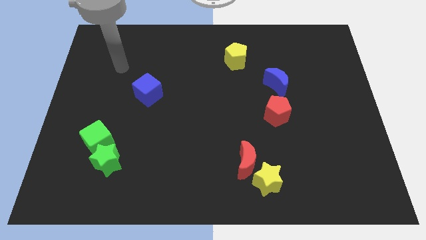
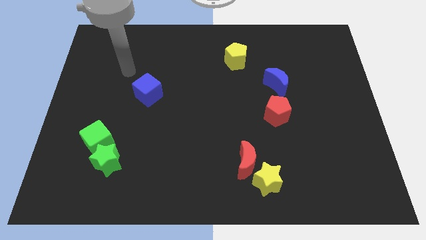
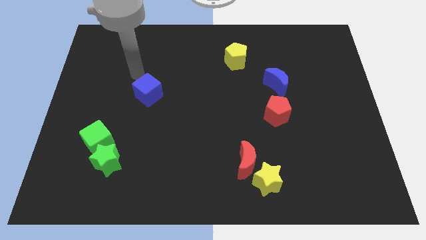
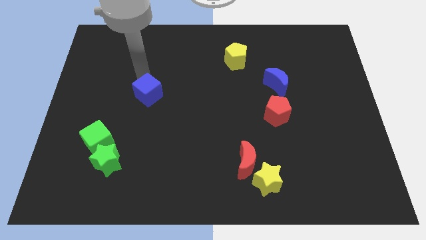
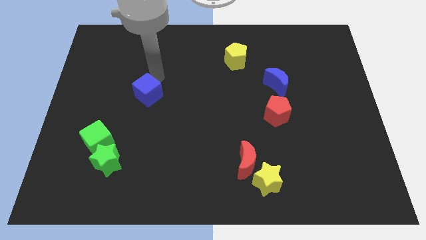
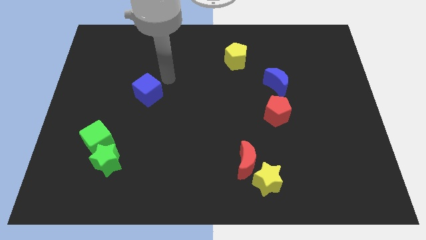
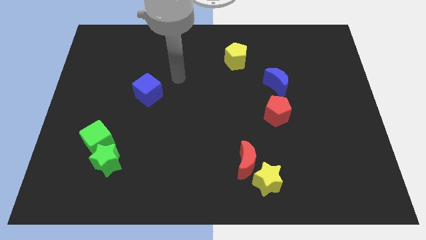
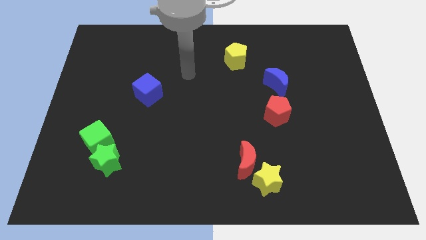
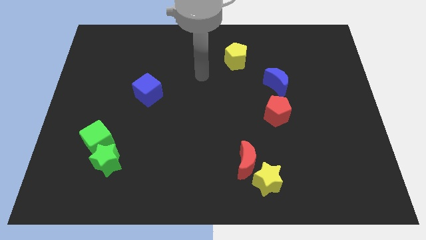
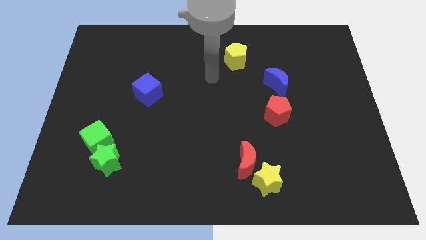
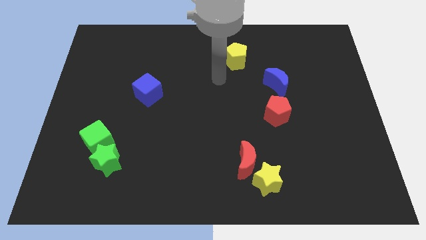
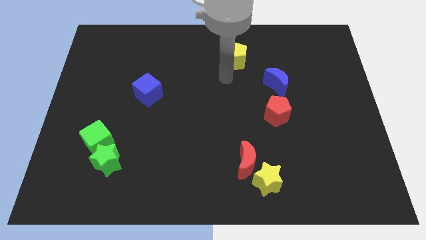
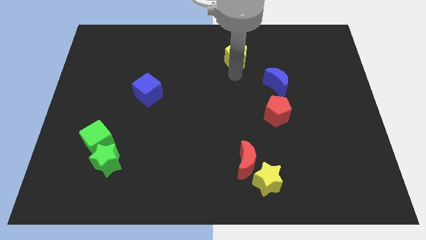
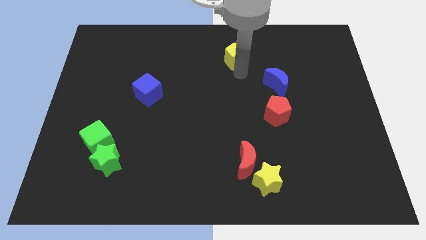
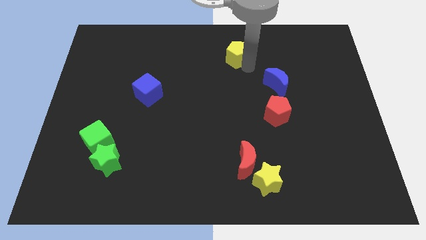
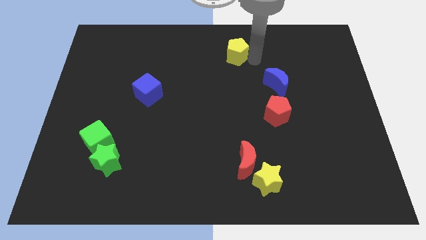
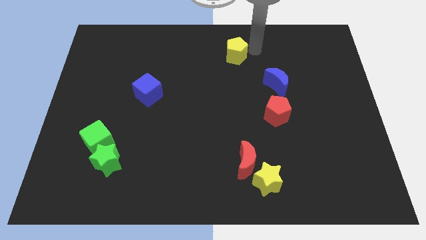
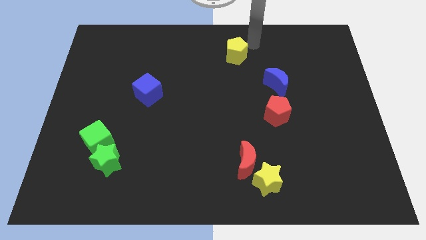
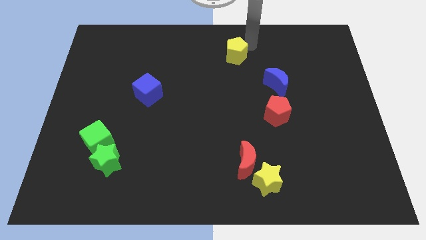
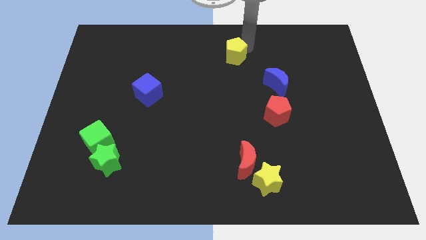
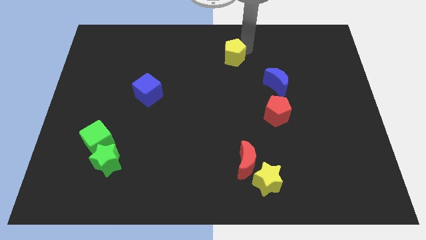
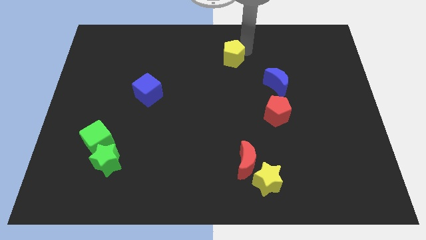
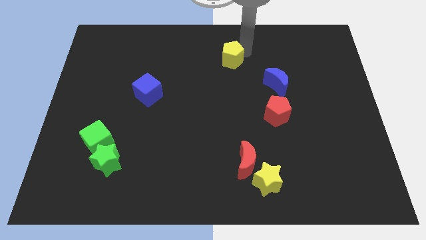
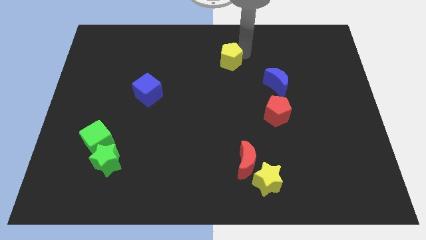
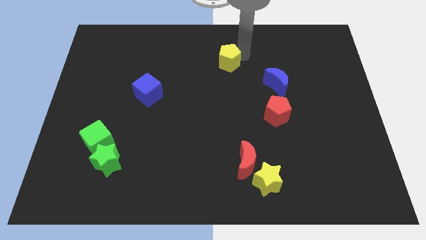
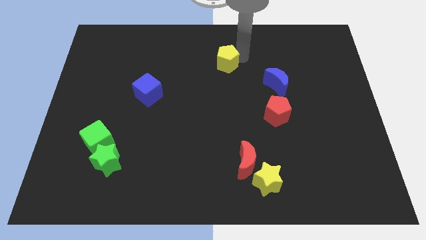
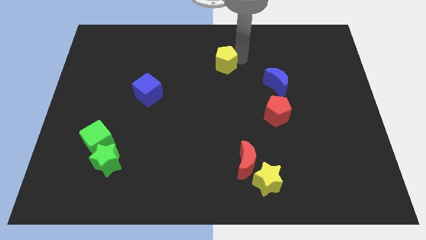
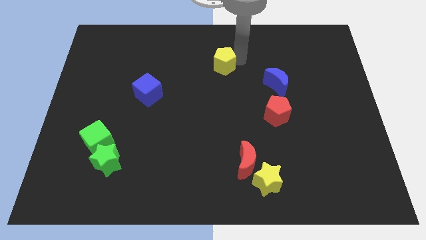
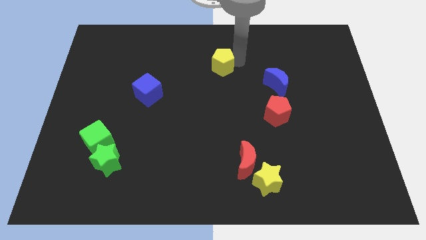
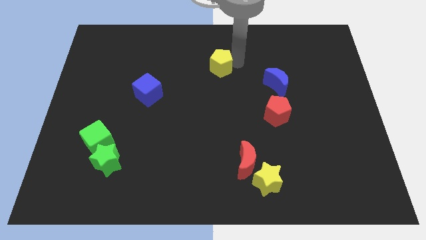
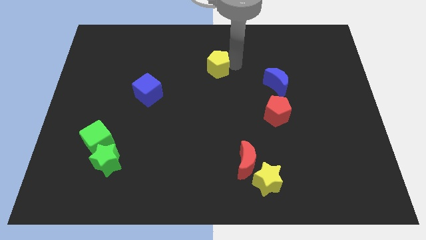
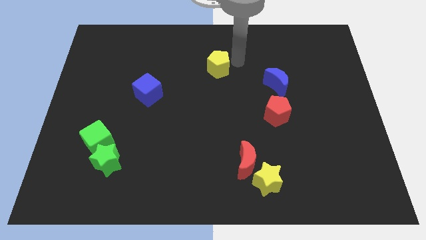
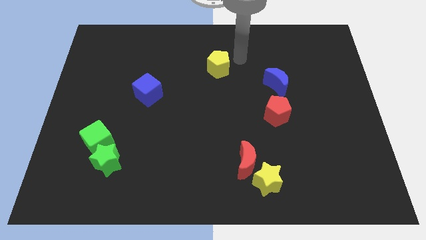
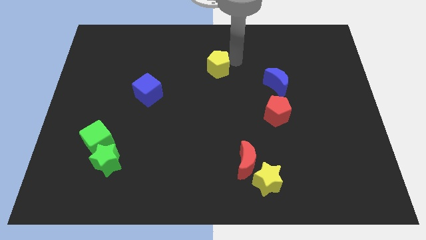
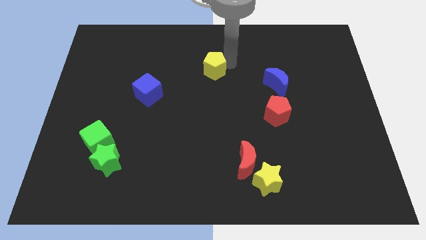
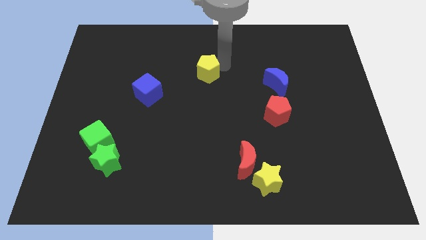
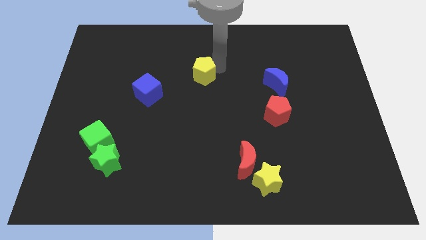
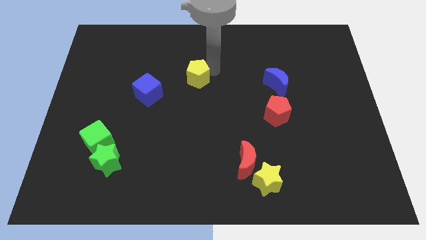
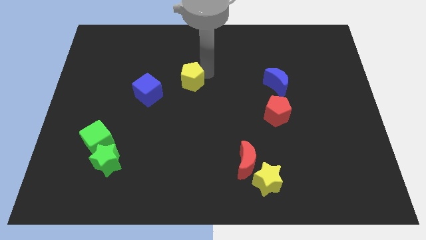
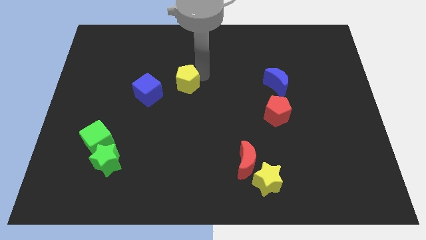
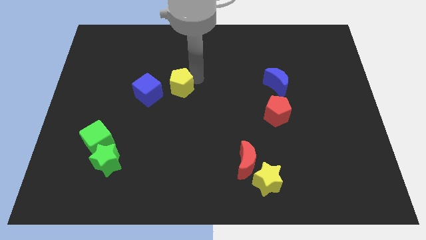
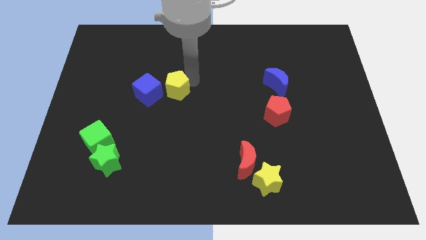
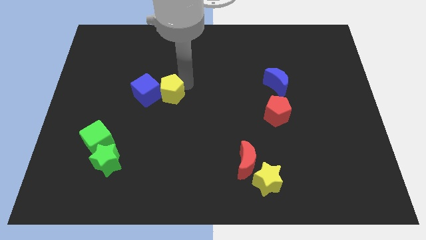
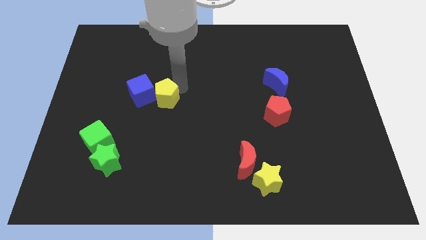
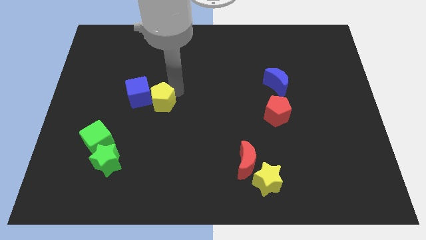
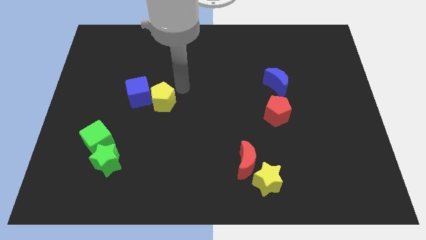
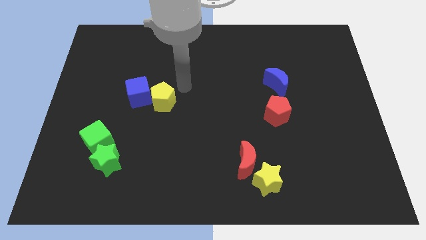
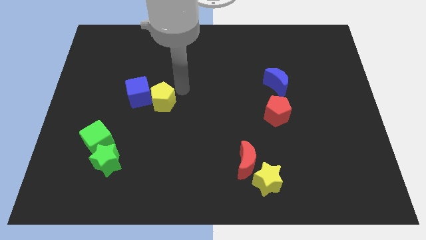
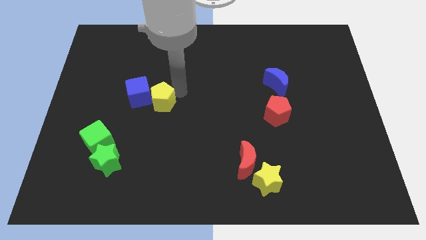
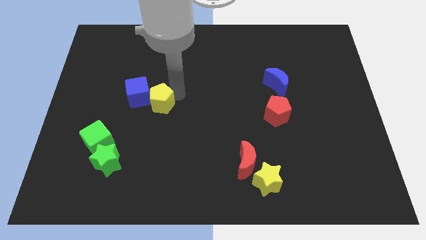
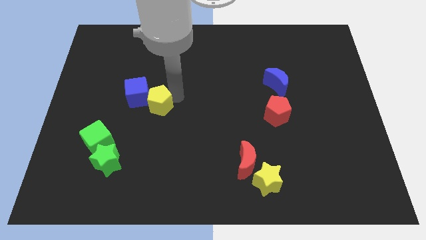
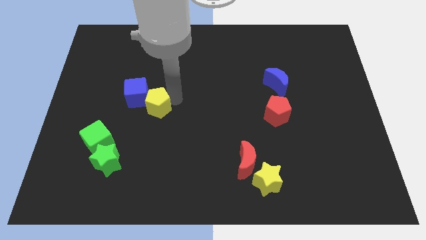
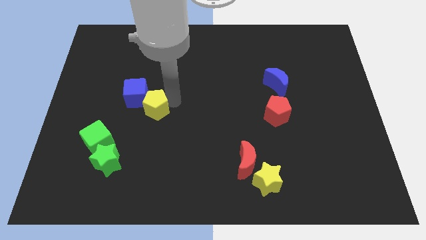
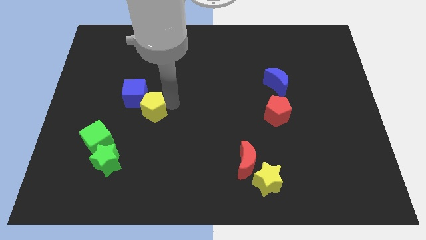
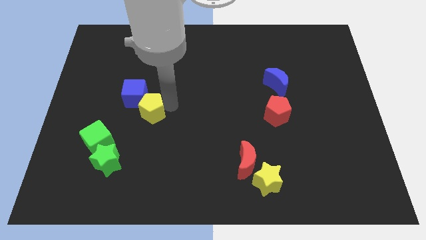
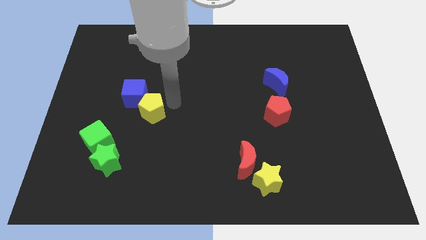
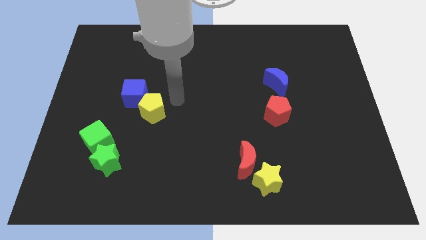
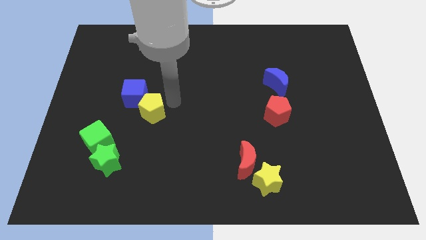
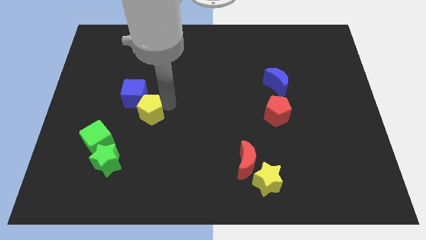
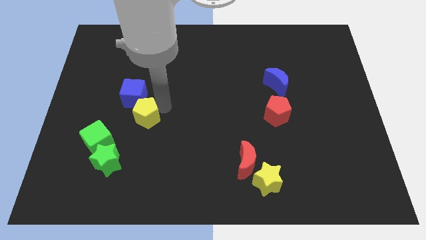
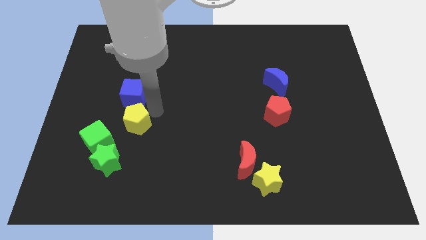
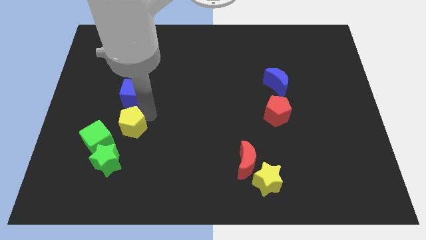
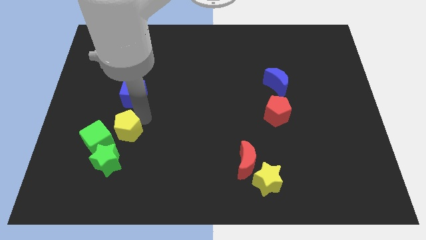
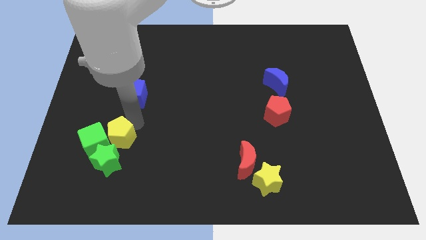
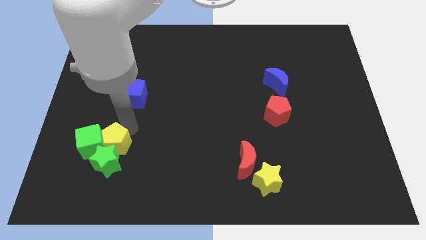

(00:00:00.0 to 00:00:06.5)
slide the yellow pentagon to the green star

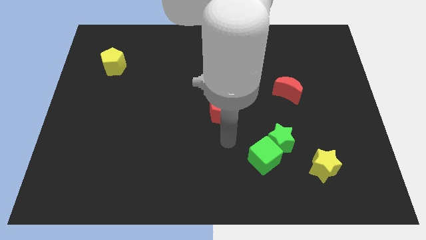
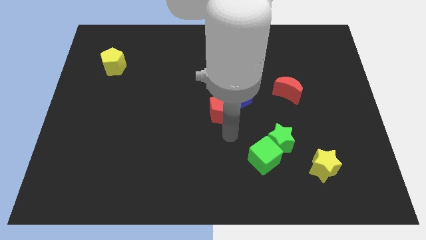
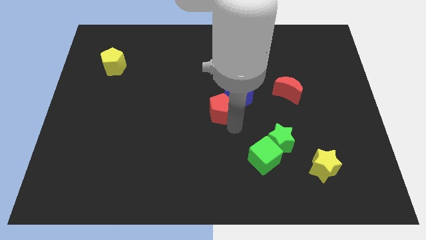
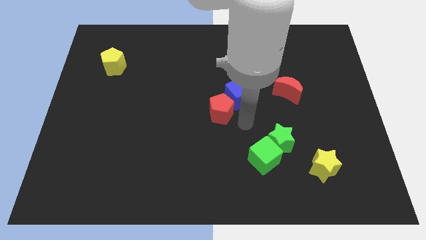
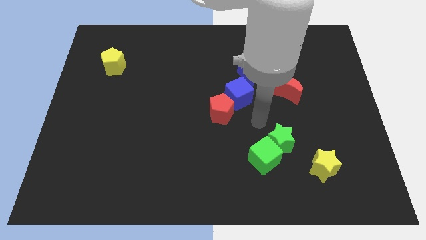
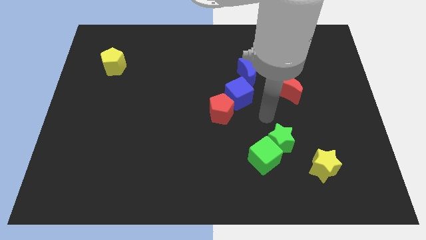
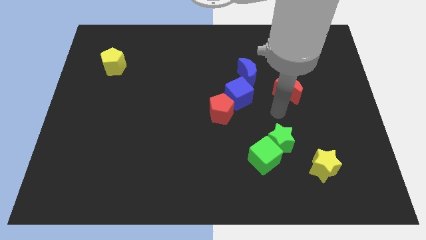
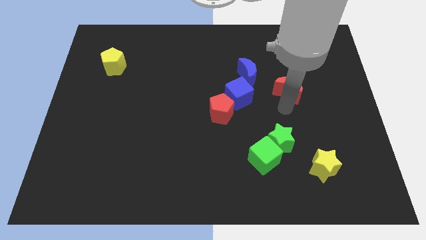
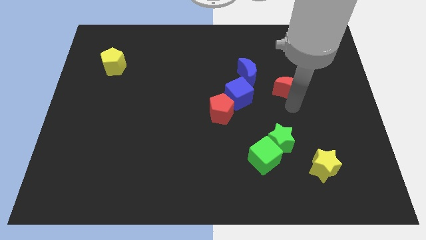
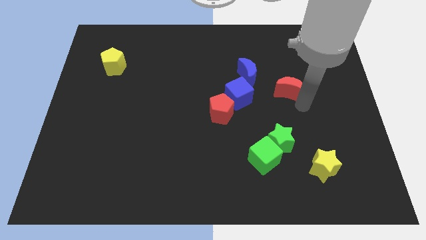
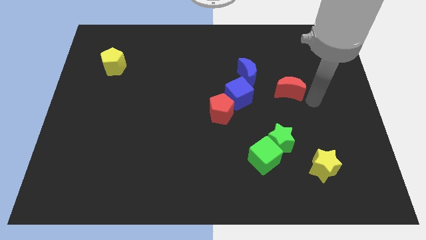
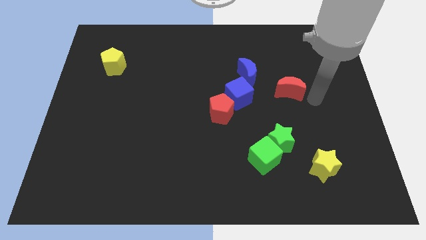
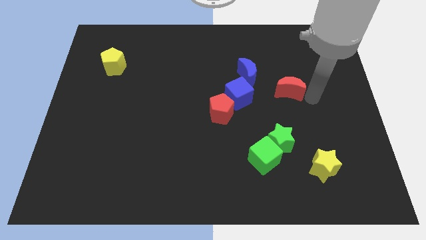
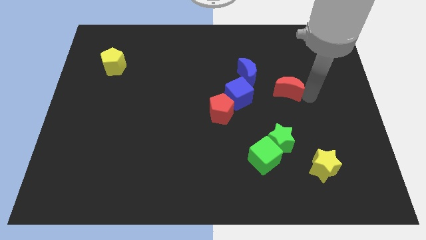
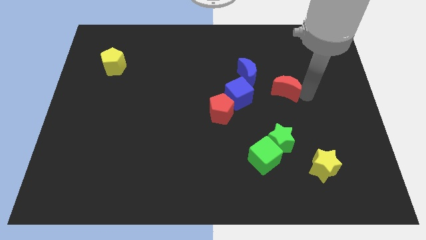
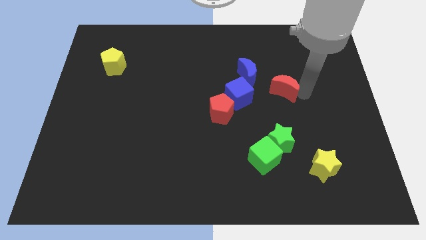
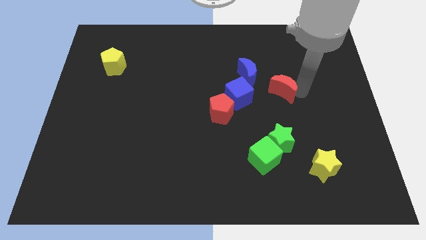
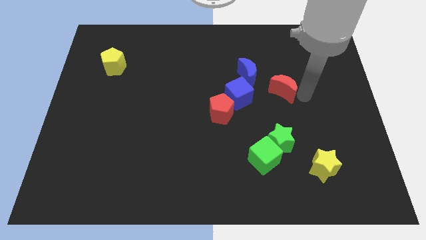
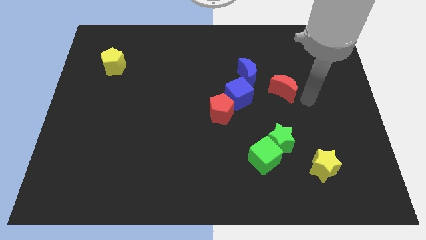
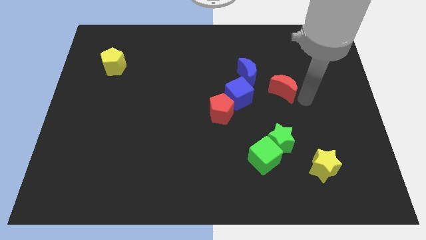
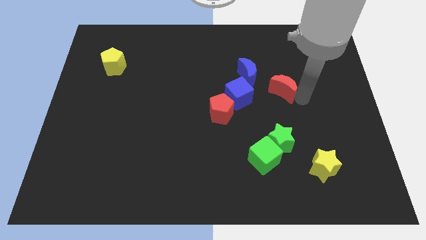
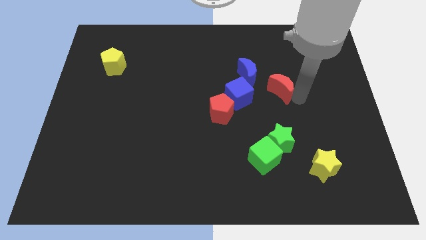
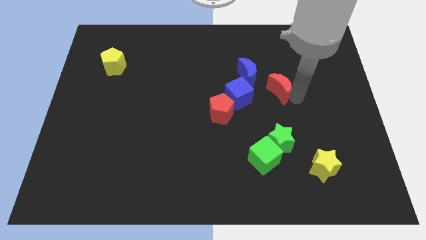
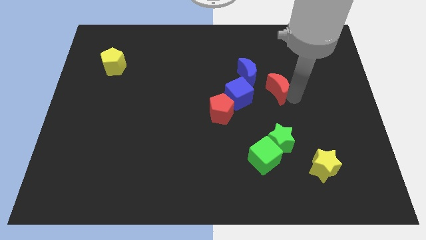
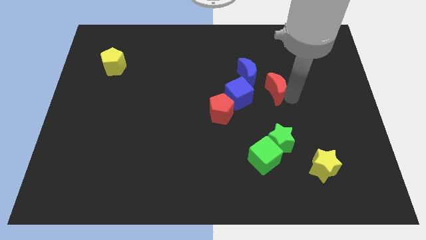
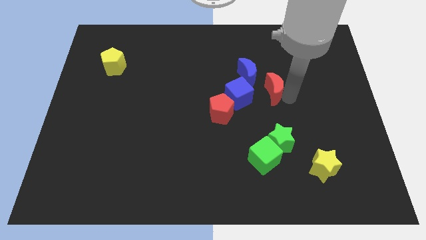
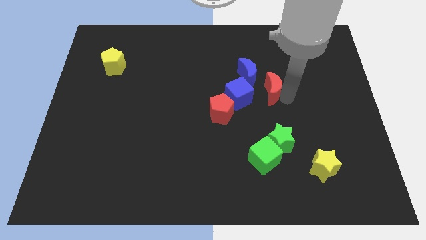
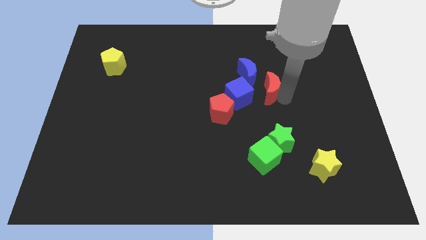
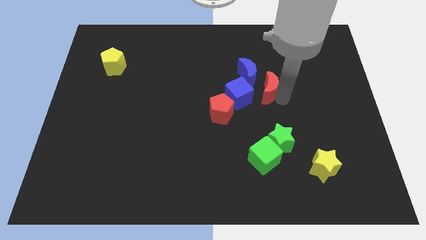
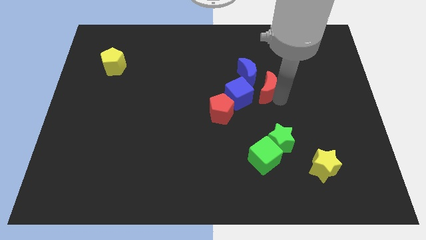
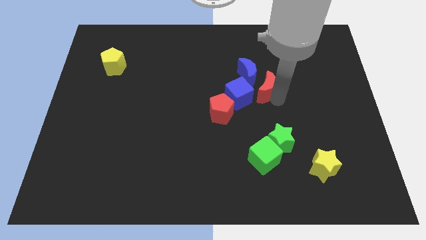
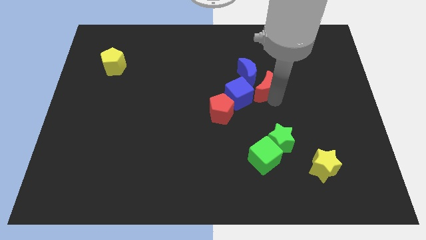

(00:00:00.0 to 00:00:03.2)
move the red moon next to the blue moon
